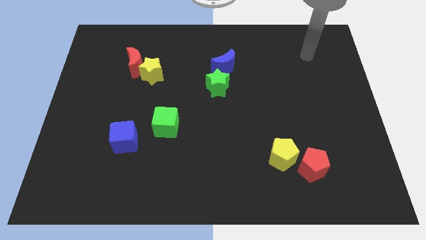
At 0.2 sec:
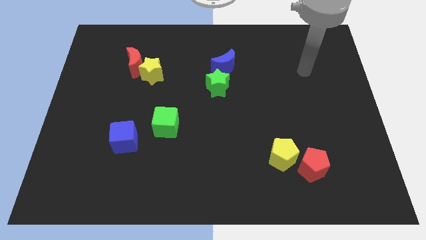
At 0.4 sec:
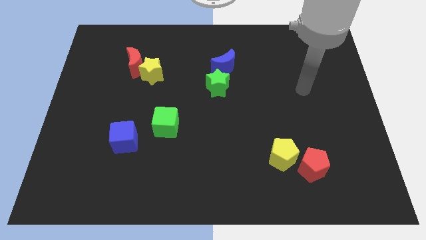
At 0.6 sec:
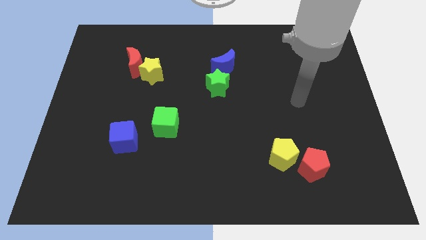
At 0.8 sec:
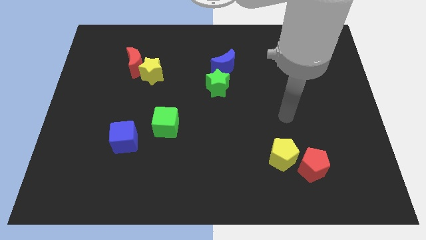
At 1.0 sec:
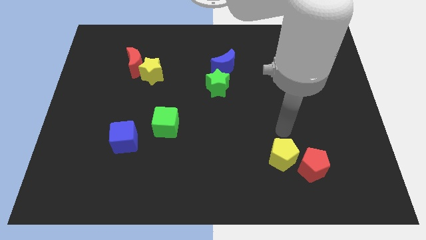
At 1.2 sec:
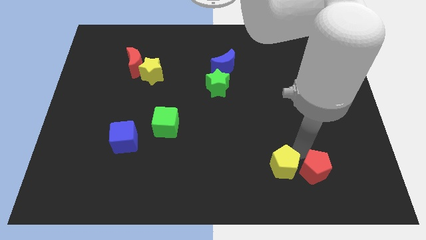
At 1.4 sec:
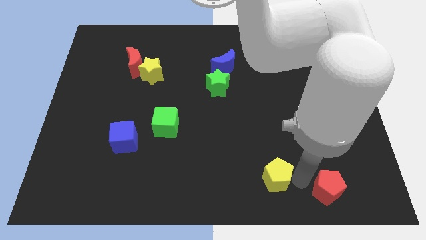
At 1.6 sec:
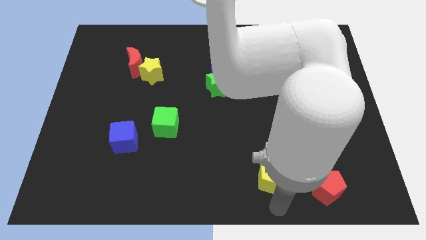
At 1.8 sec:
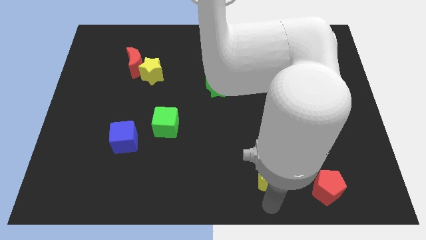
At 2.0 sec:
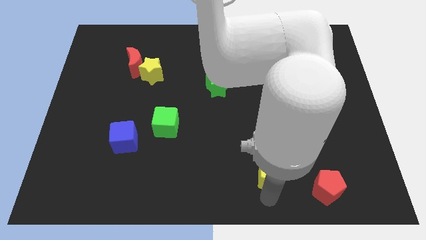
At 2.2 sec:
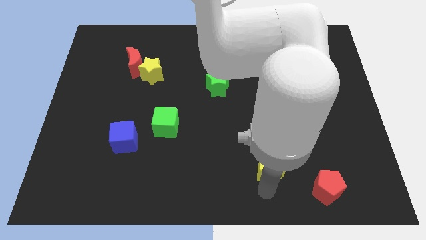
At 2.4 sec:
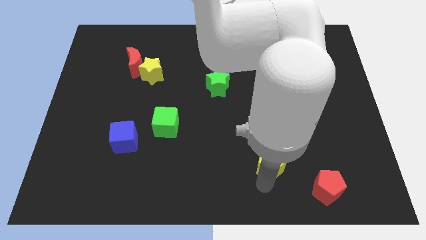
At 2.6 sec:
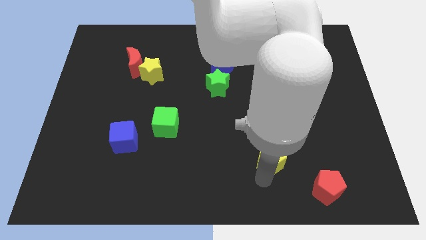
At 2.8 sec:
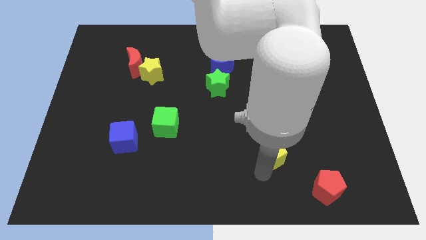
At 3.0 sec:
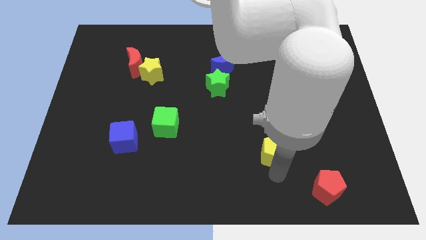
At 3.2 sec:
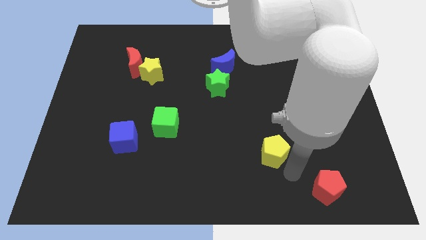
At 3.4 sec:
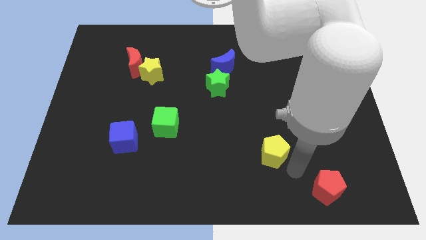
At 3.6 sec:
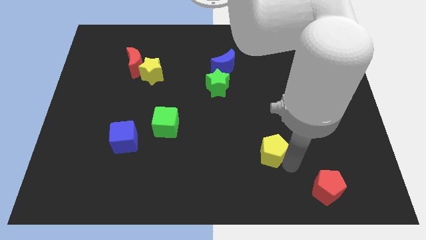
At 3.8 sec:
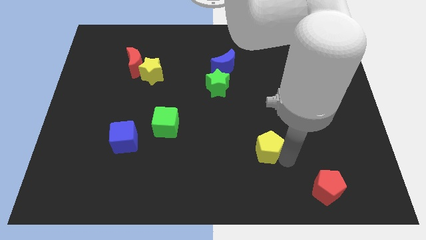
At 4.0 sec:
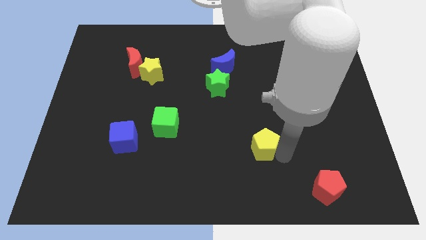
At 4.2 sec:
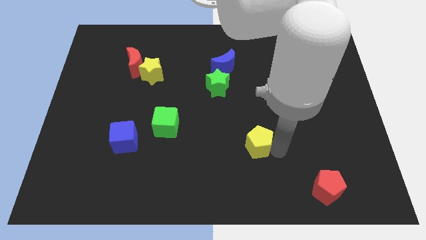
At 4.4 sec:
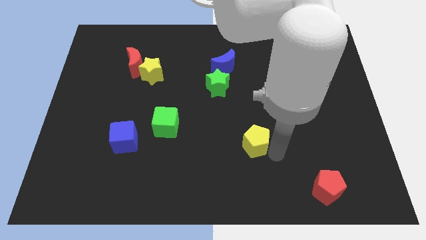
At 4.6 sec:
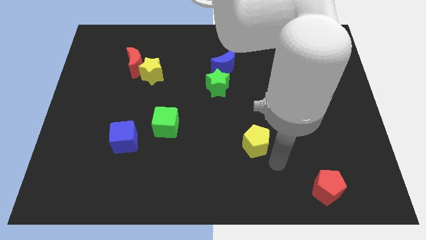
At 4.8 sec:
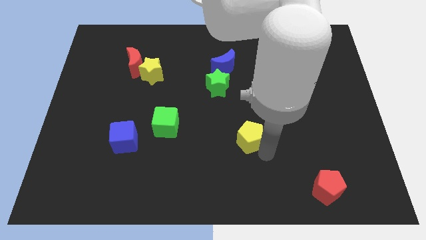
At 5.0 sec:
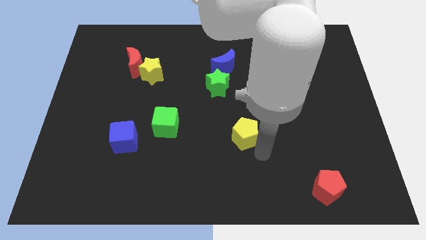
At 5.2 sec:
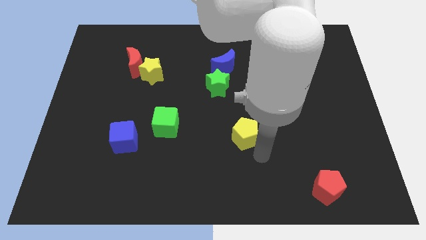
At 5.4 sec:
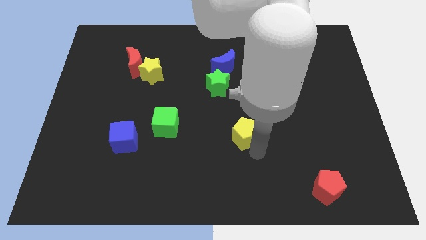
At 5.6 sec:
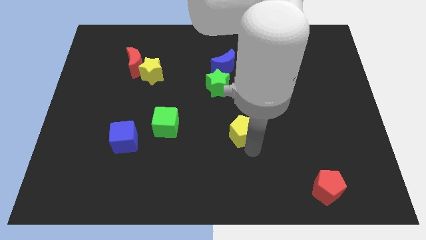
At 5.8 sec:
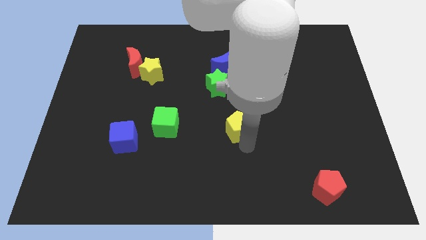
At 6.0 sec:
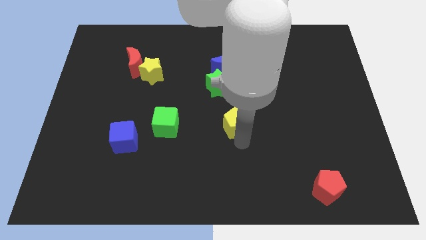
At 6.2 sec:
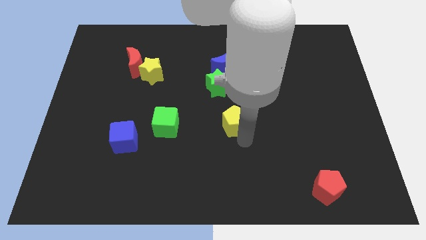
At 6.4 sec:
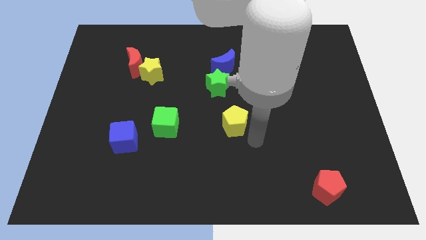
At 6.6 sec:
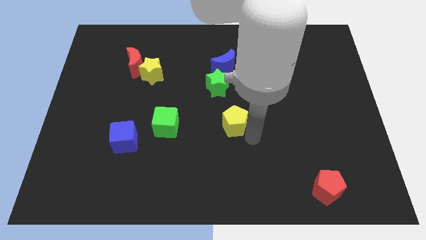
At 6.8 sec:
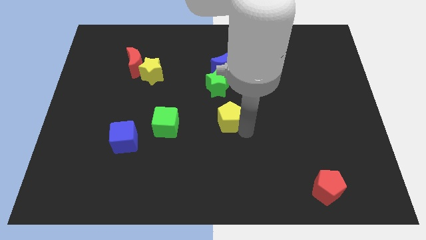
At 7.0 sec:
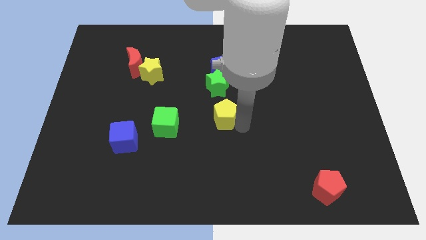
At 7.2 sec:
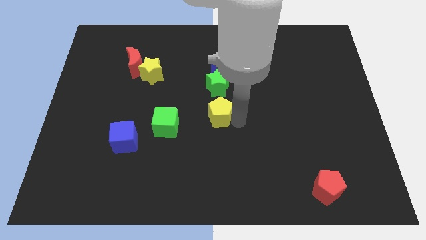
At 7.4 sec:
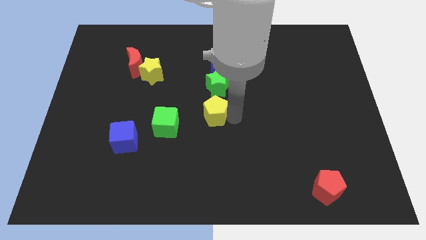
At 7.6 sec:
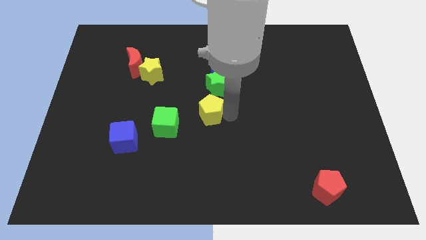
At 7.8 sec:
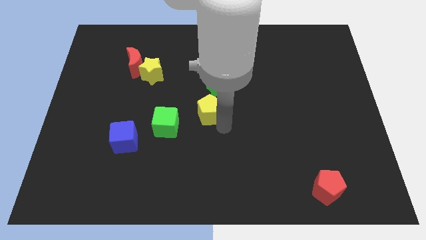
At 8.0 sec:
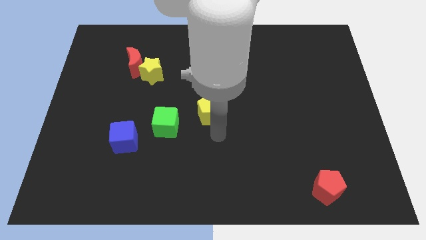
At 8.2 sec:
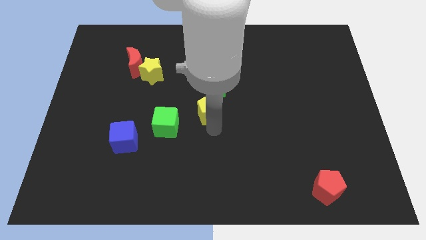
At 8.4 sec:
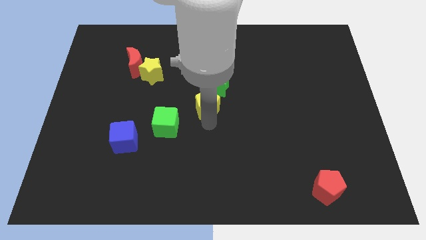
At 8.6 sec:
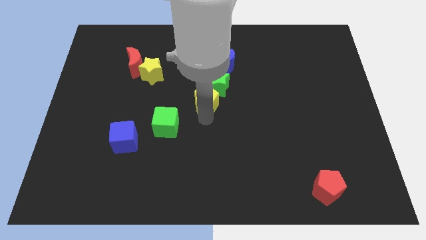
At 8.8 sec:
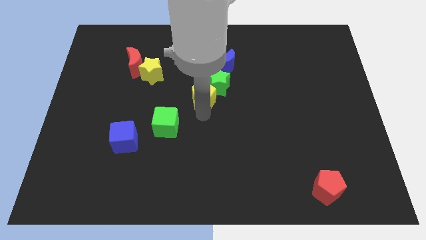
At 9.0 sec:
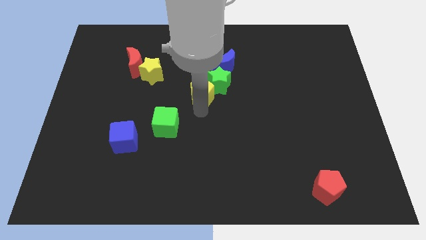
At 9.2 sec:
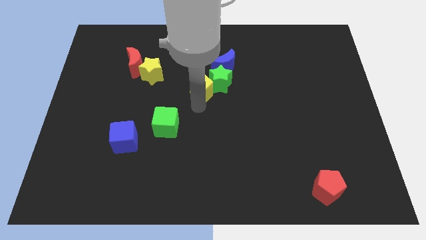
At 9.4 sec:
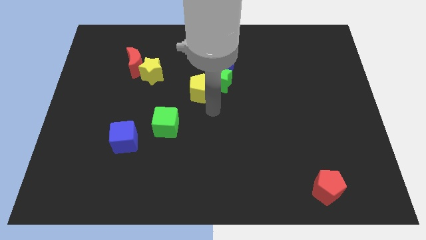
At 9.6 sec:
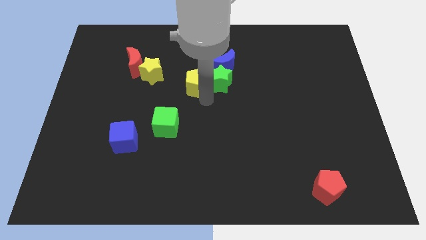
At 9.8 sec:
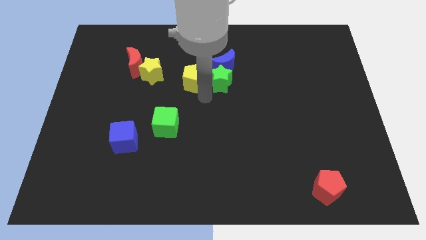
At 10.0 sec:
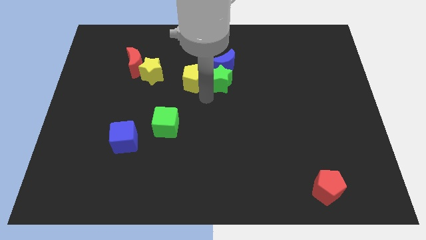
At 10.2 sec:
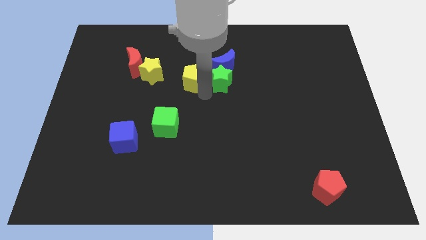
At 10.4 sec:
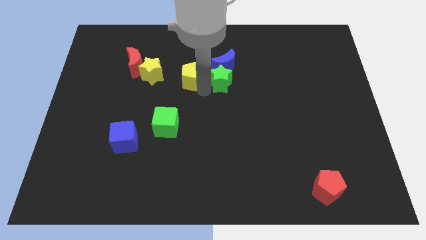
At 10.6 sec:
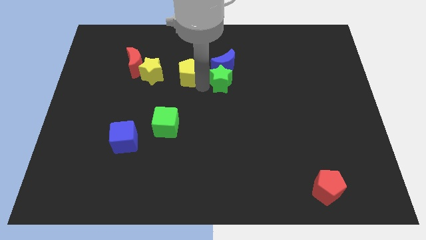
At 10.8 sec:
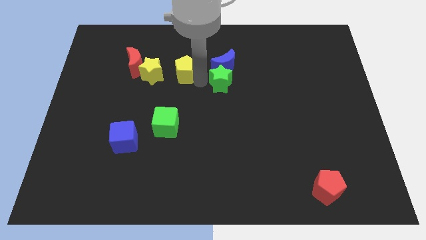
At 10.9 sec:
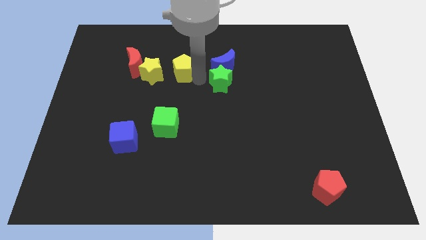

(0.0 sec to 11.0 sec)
slide the yellow pentagon diagonally up and to the right of the yellow star

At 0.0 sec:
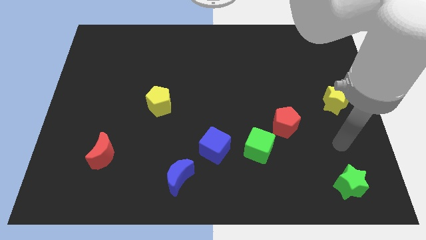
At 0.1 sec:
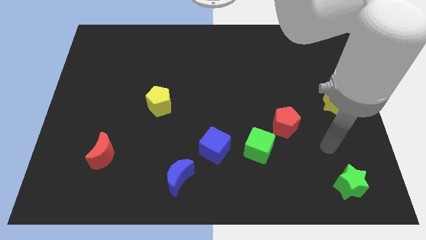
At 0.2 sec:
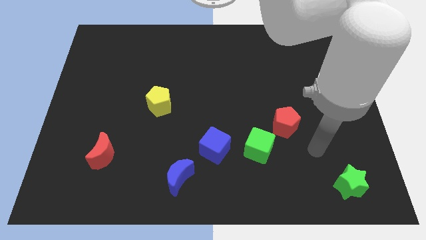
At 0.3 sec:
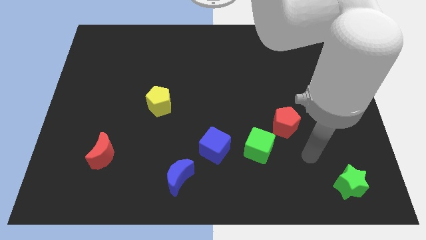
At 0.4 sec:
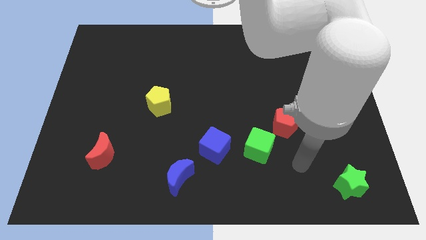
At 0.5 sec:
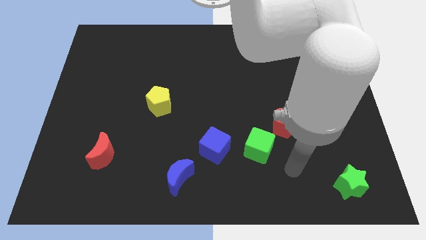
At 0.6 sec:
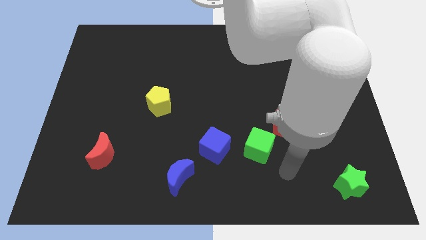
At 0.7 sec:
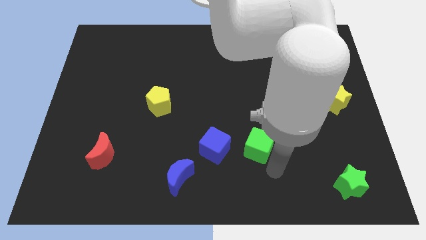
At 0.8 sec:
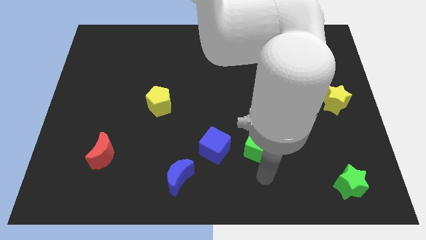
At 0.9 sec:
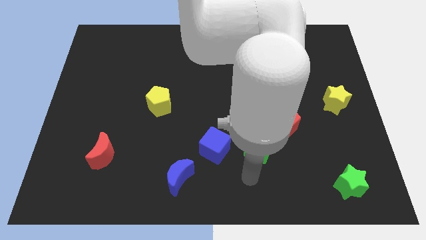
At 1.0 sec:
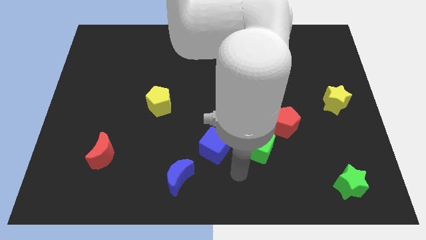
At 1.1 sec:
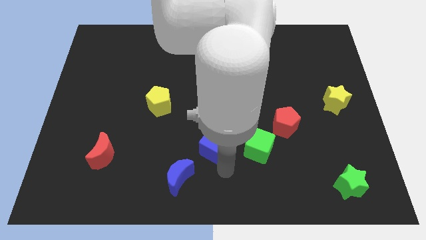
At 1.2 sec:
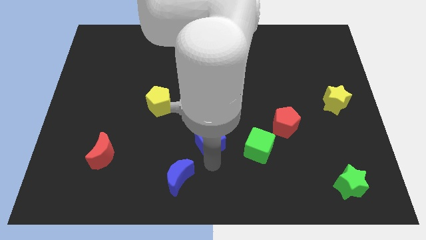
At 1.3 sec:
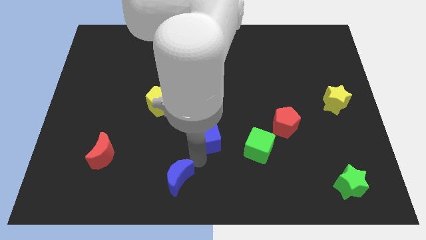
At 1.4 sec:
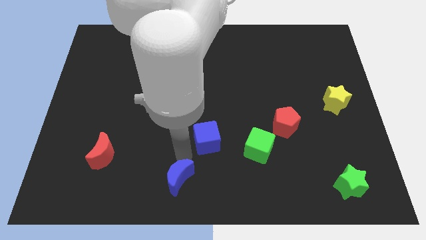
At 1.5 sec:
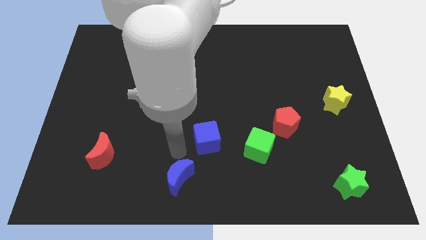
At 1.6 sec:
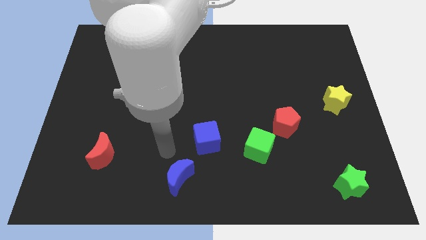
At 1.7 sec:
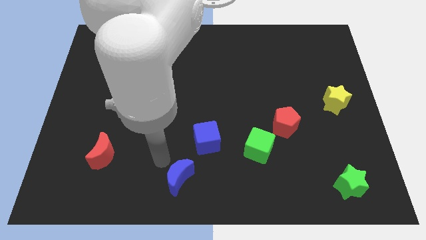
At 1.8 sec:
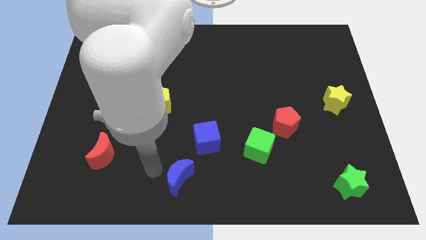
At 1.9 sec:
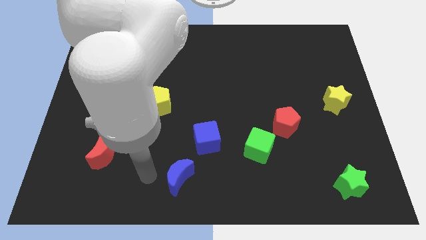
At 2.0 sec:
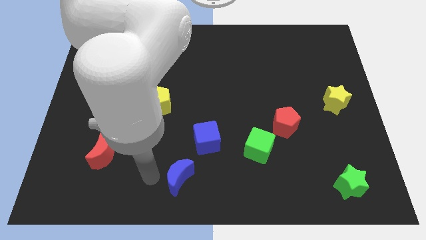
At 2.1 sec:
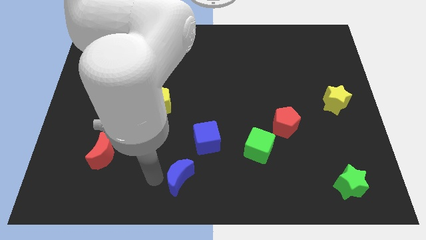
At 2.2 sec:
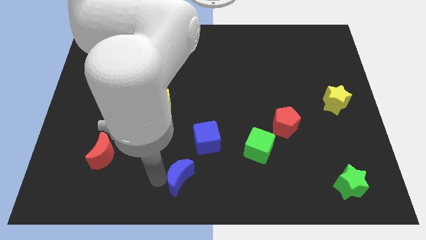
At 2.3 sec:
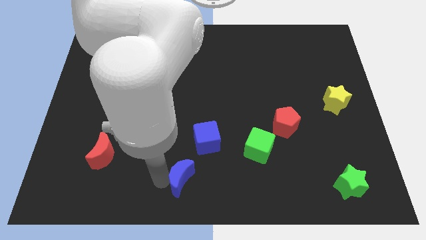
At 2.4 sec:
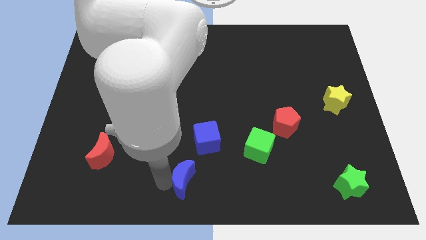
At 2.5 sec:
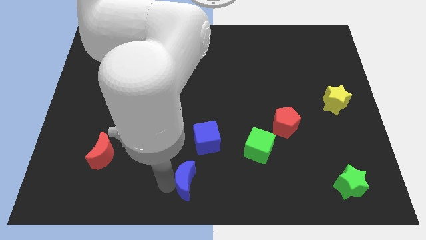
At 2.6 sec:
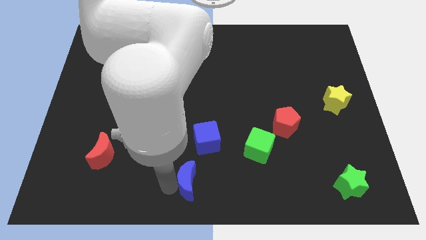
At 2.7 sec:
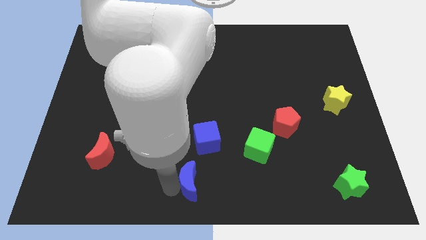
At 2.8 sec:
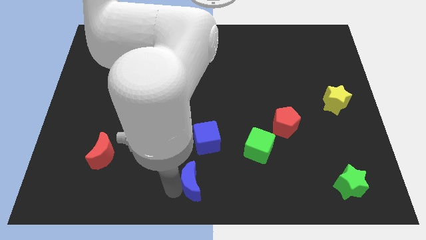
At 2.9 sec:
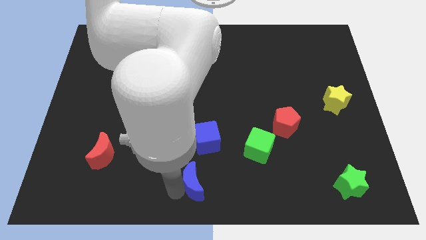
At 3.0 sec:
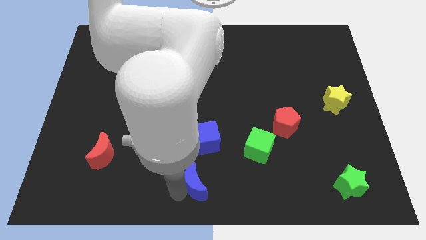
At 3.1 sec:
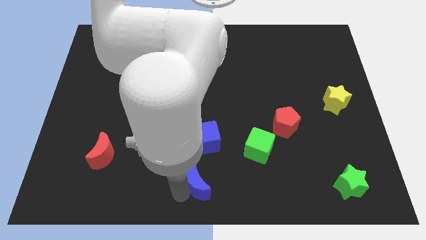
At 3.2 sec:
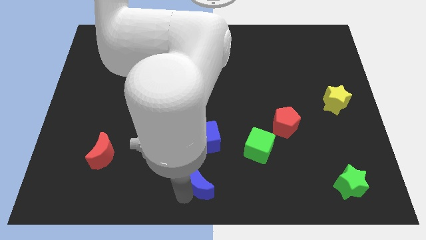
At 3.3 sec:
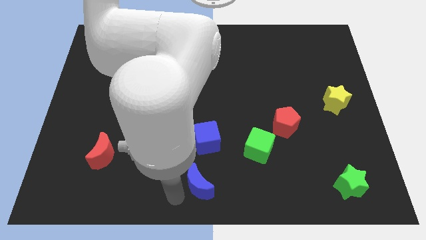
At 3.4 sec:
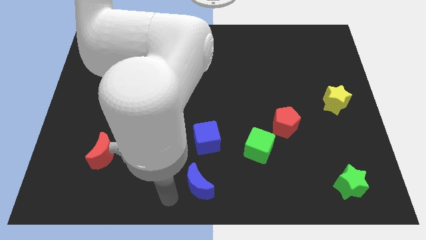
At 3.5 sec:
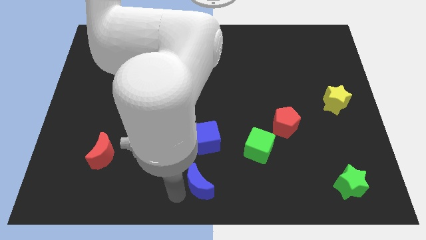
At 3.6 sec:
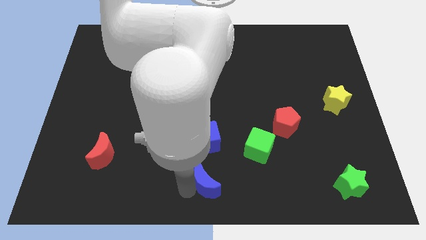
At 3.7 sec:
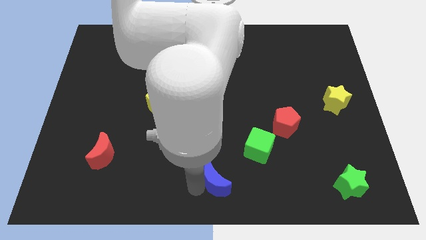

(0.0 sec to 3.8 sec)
move the blue moon to the bottom left of the green cube
